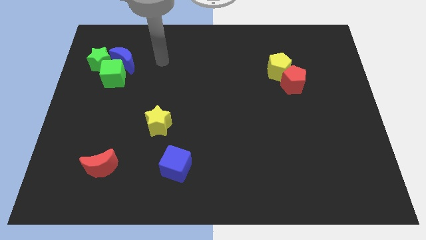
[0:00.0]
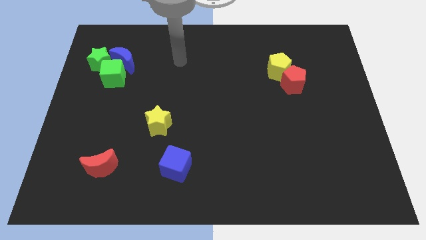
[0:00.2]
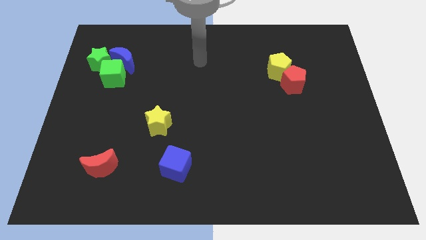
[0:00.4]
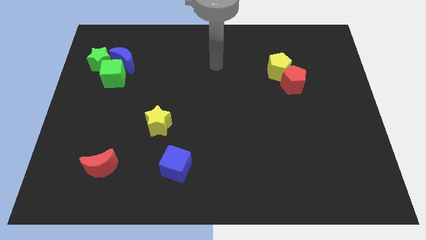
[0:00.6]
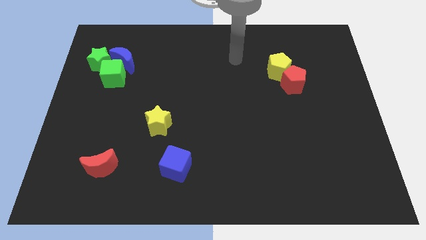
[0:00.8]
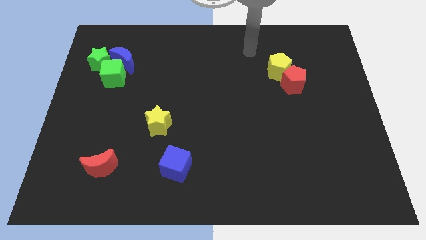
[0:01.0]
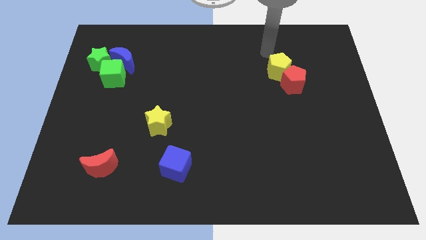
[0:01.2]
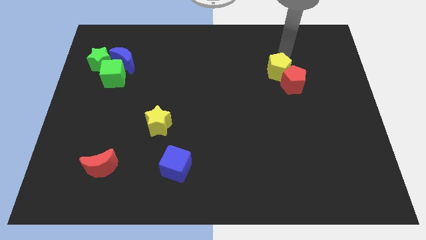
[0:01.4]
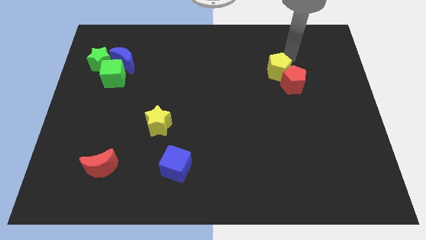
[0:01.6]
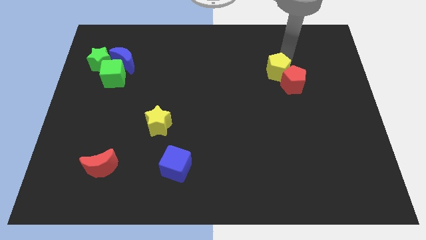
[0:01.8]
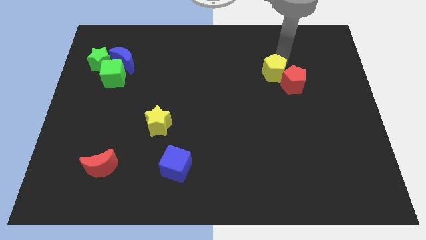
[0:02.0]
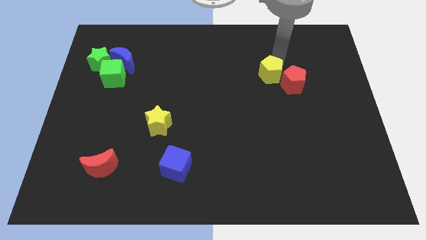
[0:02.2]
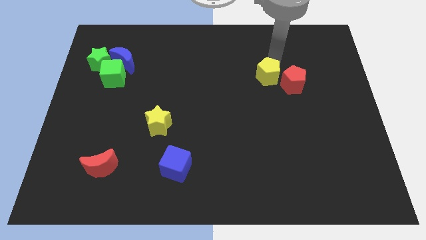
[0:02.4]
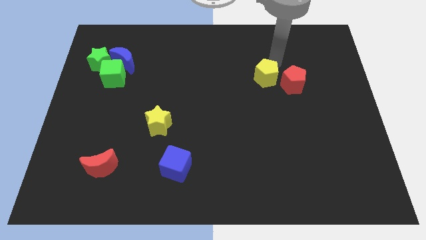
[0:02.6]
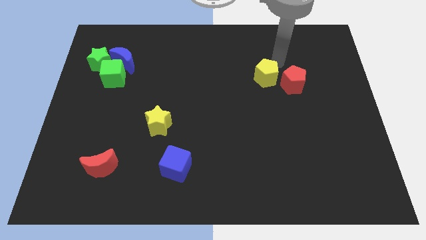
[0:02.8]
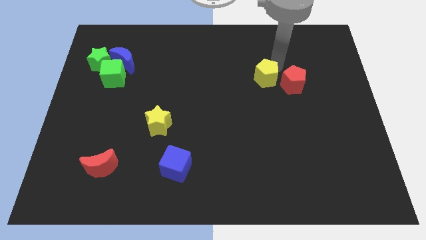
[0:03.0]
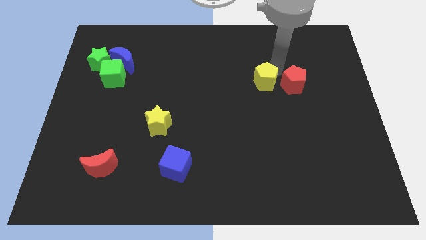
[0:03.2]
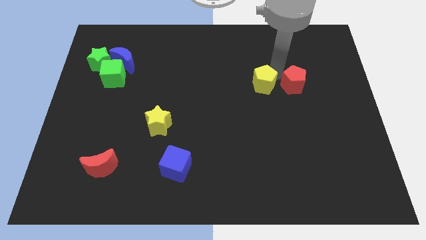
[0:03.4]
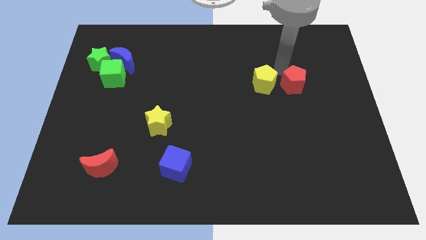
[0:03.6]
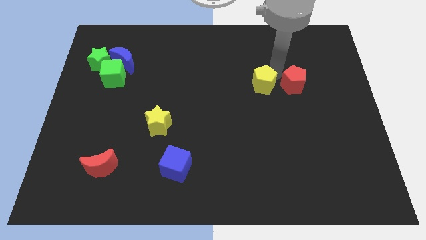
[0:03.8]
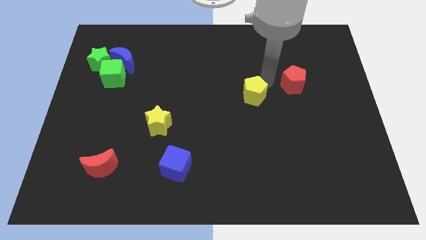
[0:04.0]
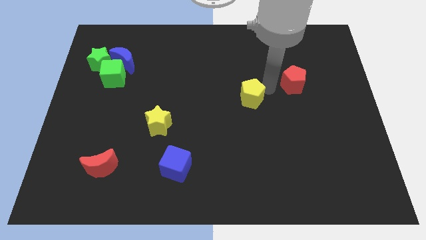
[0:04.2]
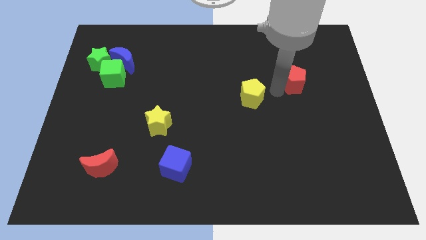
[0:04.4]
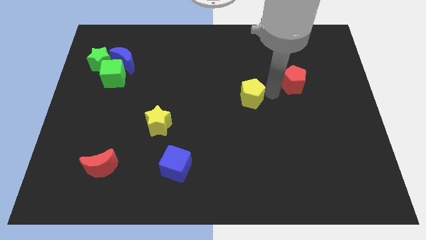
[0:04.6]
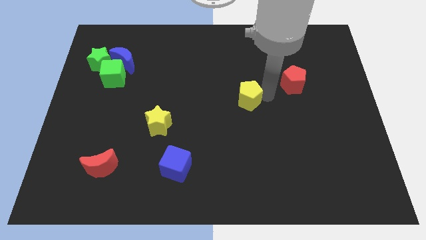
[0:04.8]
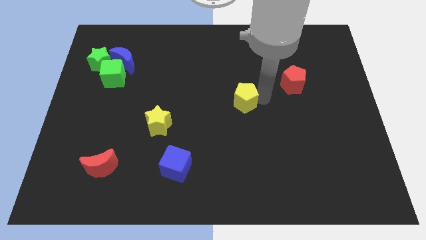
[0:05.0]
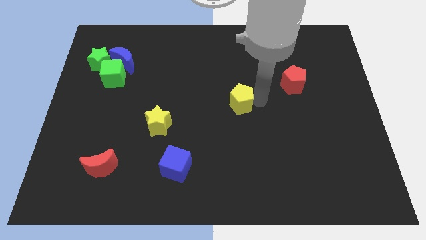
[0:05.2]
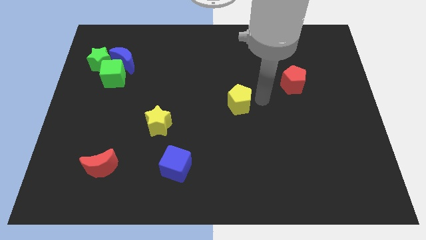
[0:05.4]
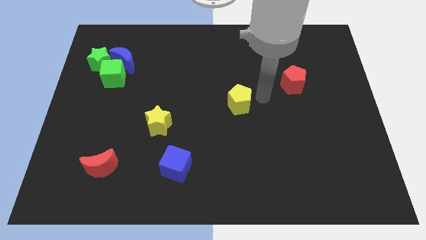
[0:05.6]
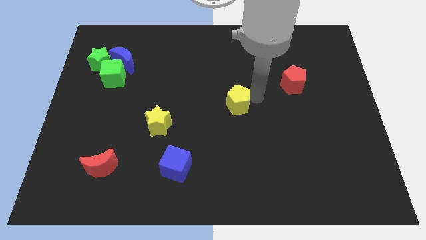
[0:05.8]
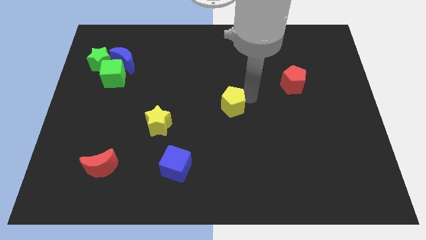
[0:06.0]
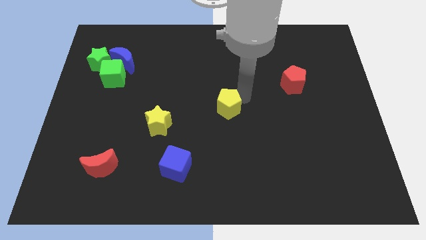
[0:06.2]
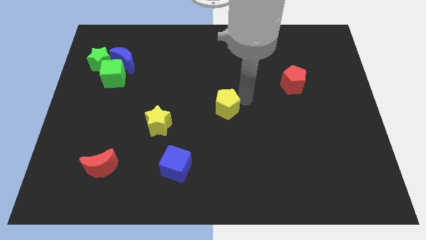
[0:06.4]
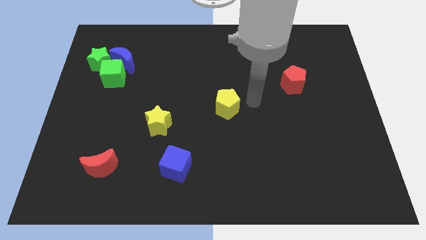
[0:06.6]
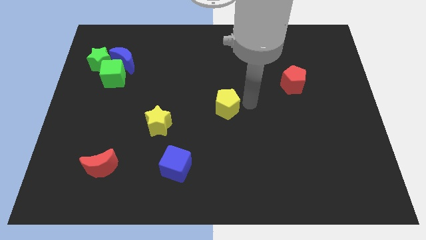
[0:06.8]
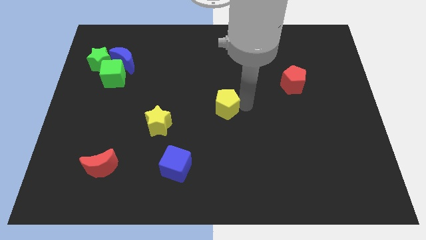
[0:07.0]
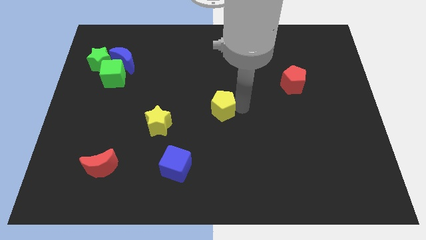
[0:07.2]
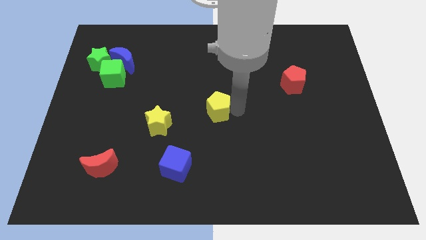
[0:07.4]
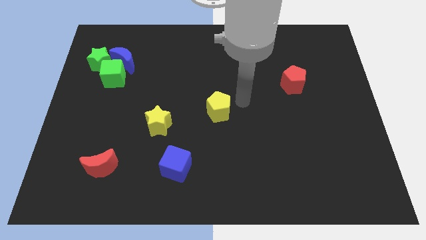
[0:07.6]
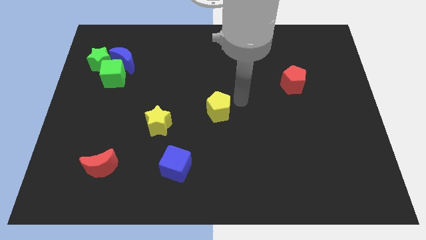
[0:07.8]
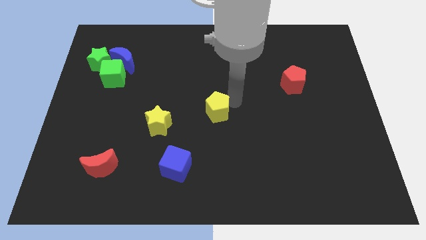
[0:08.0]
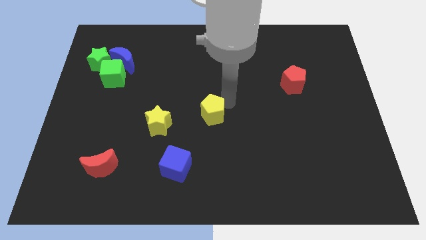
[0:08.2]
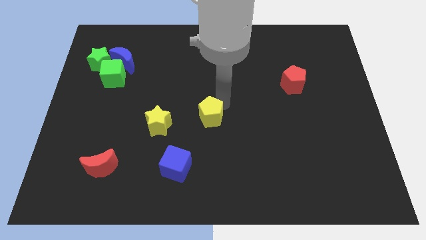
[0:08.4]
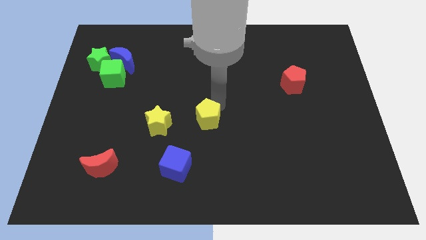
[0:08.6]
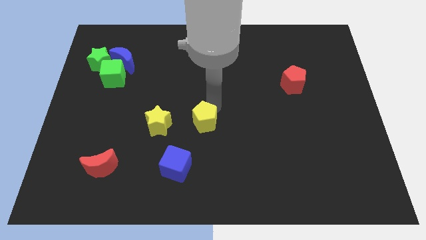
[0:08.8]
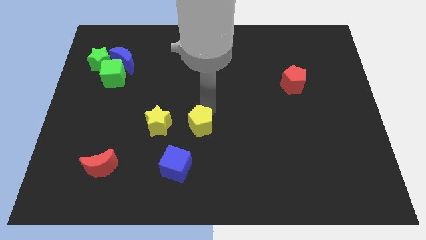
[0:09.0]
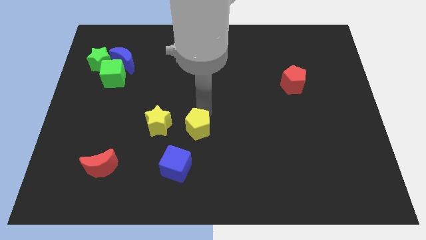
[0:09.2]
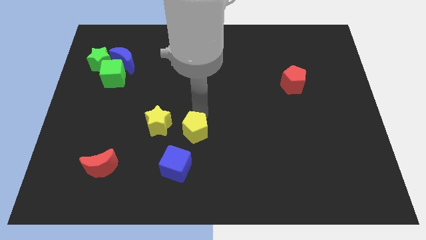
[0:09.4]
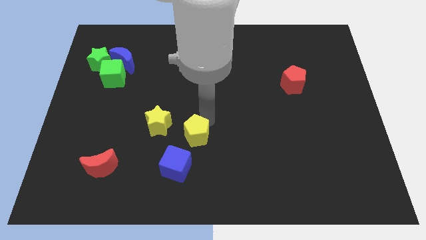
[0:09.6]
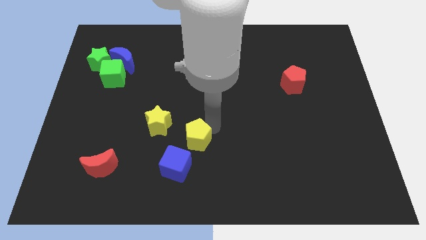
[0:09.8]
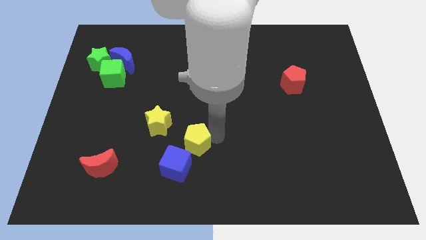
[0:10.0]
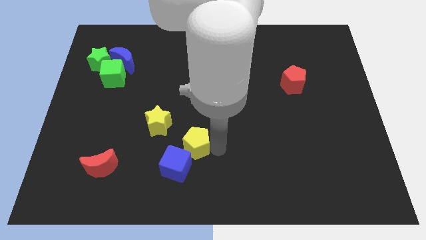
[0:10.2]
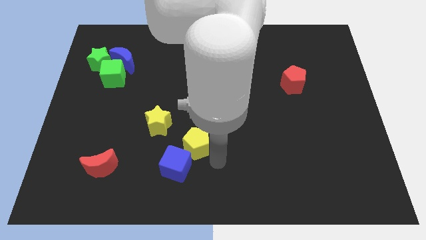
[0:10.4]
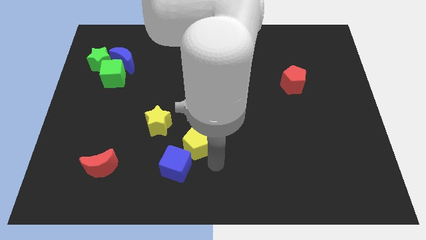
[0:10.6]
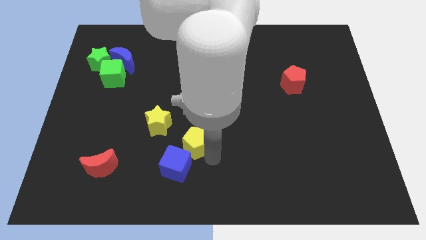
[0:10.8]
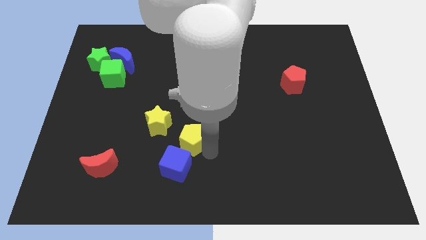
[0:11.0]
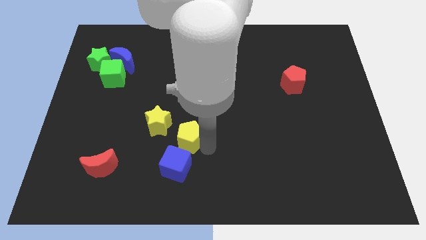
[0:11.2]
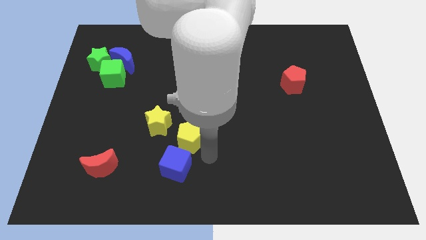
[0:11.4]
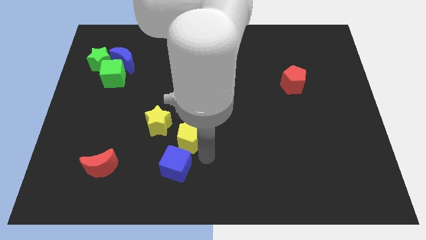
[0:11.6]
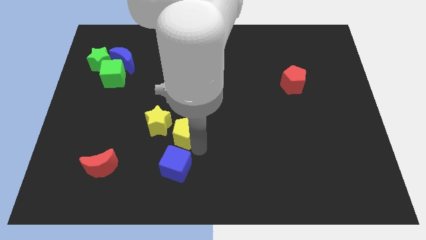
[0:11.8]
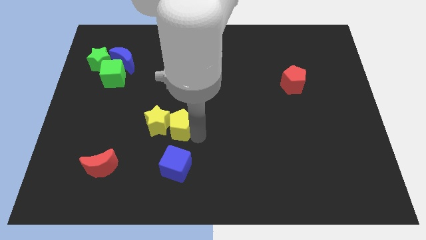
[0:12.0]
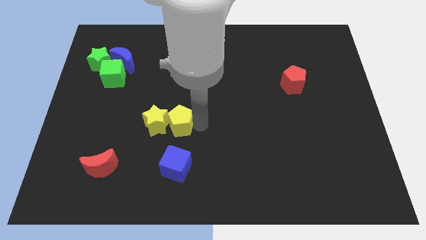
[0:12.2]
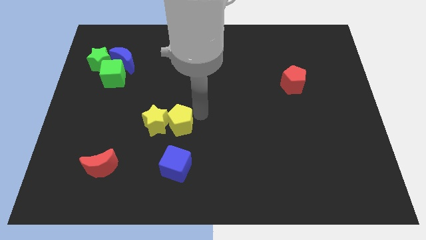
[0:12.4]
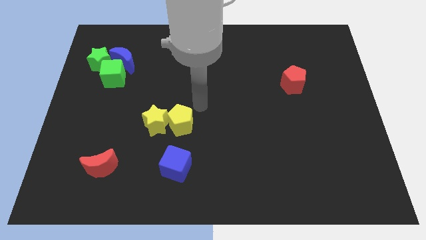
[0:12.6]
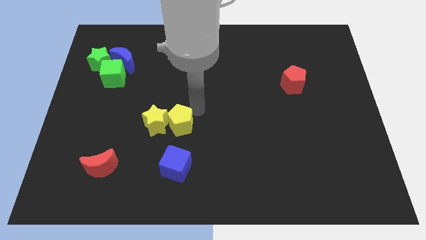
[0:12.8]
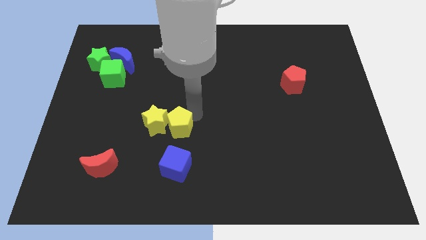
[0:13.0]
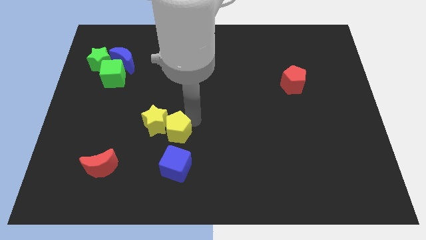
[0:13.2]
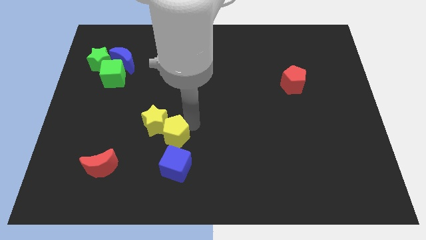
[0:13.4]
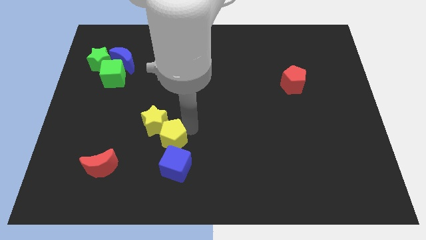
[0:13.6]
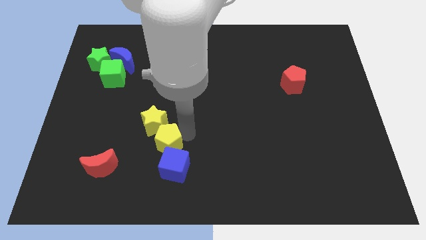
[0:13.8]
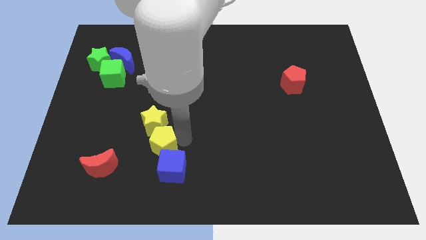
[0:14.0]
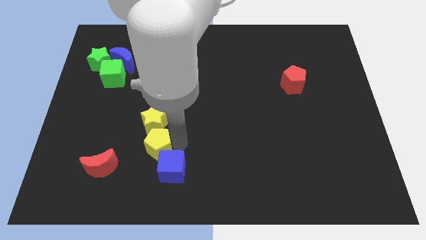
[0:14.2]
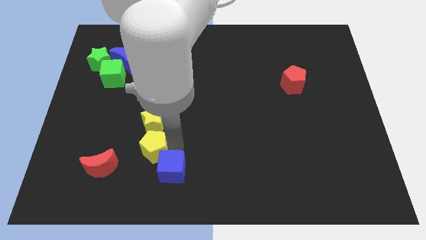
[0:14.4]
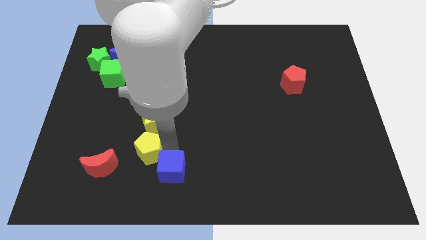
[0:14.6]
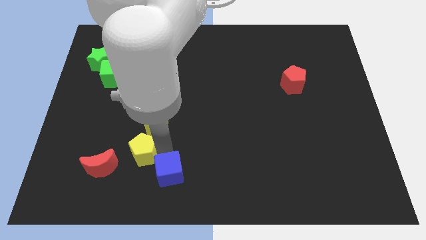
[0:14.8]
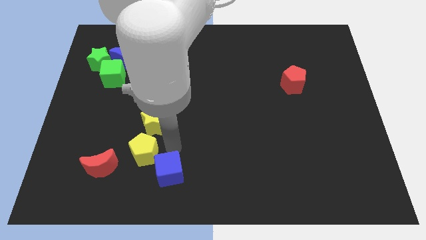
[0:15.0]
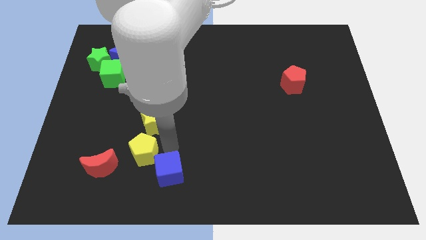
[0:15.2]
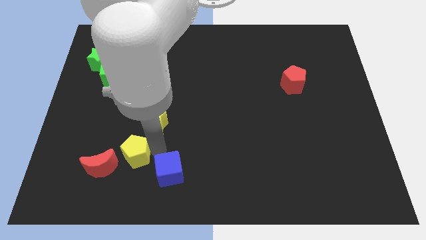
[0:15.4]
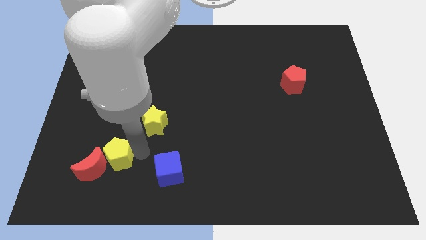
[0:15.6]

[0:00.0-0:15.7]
move the yellow pentagon to the red moon
